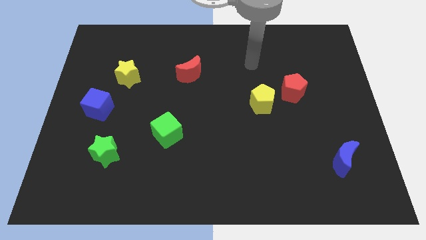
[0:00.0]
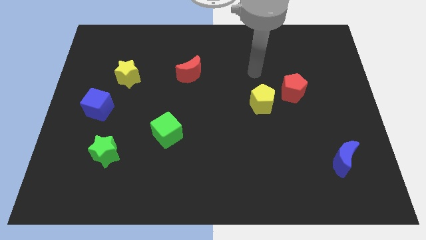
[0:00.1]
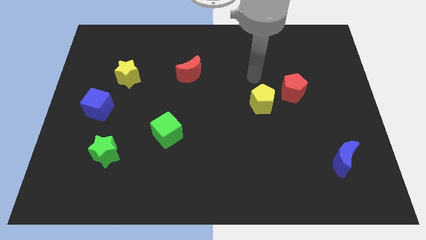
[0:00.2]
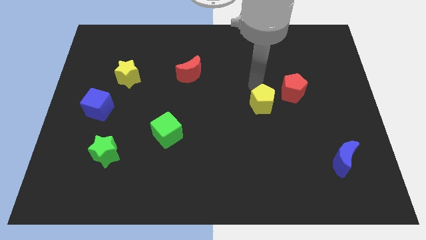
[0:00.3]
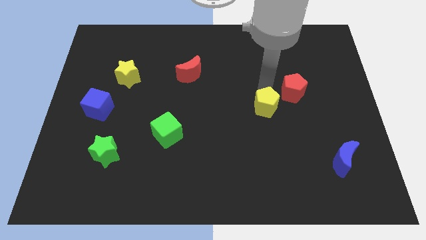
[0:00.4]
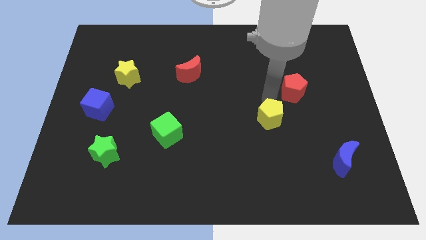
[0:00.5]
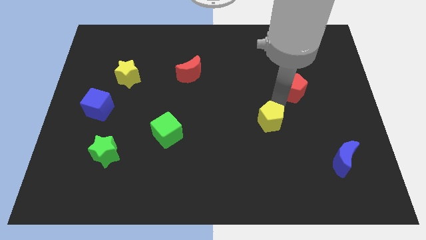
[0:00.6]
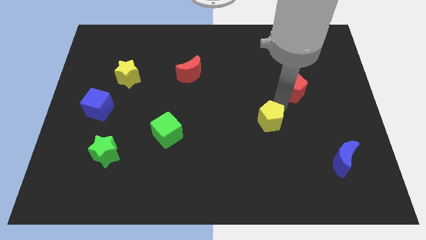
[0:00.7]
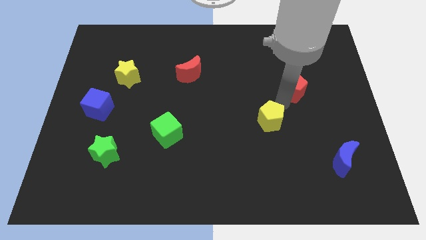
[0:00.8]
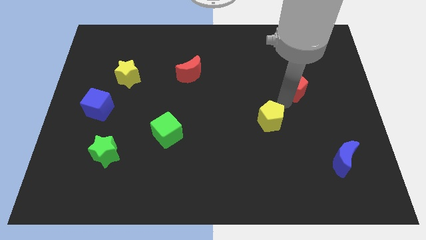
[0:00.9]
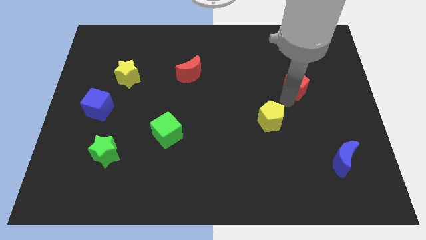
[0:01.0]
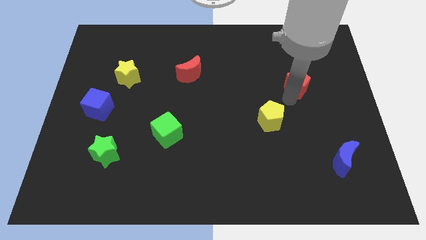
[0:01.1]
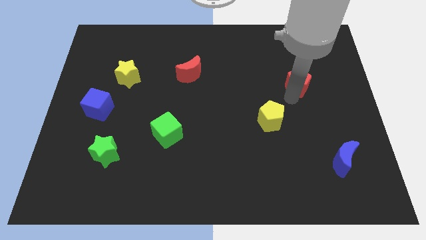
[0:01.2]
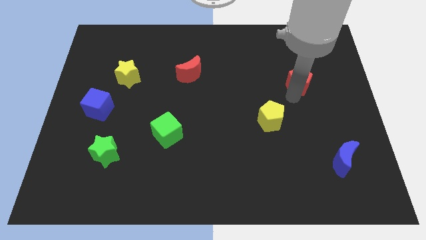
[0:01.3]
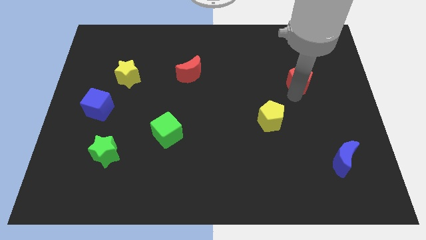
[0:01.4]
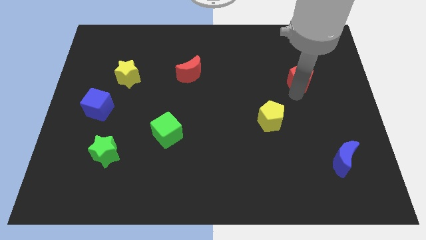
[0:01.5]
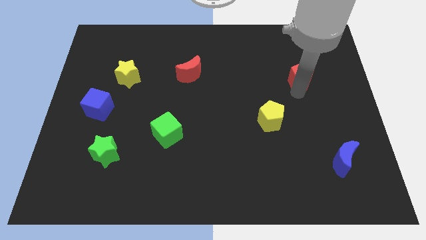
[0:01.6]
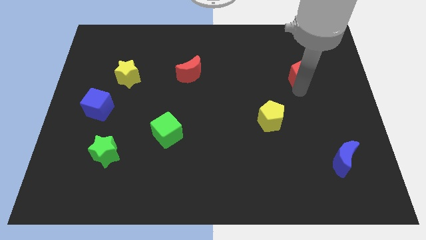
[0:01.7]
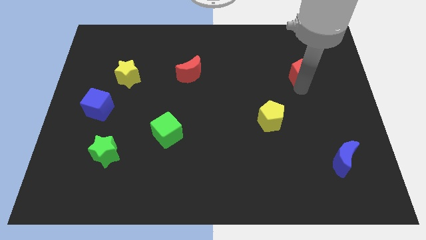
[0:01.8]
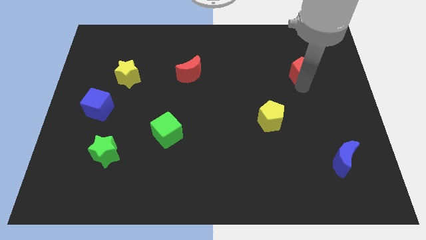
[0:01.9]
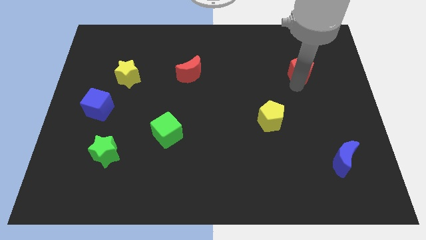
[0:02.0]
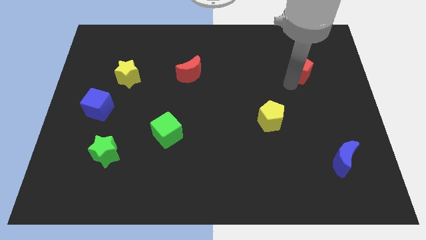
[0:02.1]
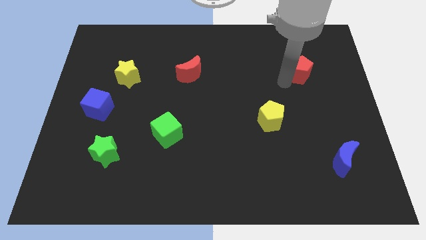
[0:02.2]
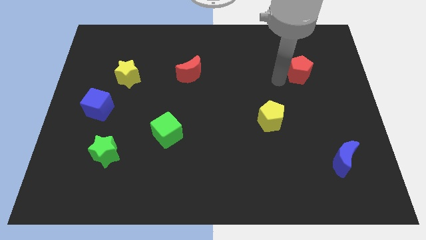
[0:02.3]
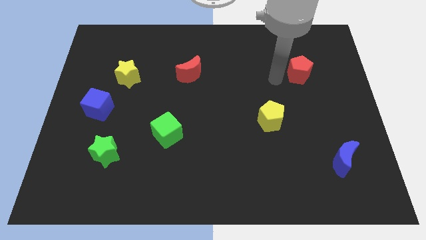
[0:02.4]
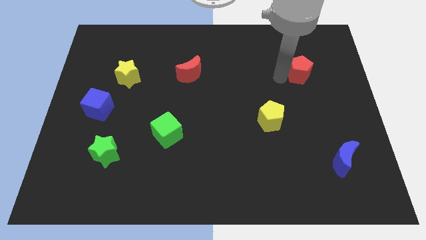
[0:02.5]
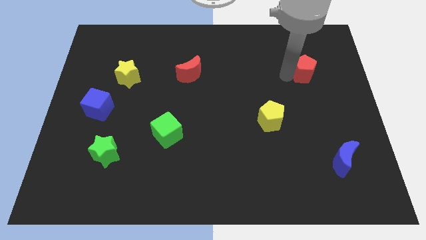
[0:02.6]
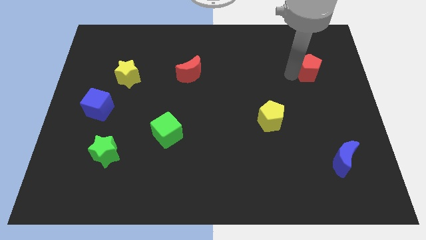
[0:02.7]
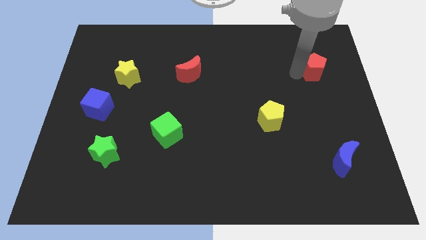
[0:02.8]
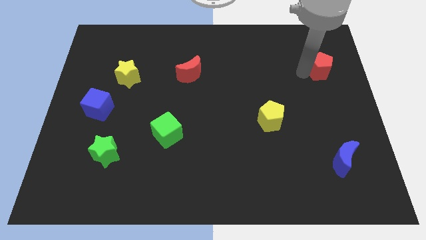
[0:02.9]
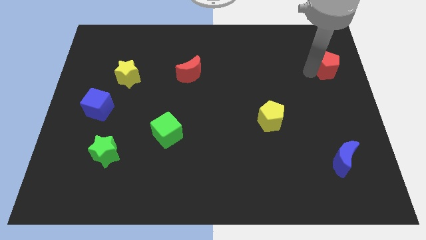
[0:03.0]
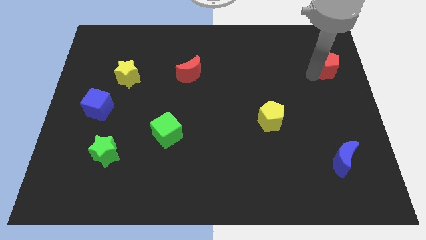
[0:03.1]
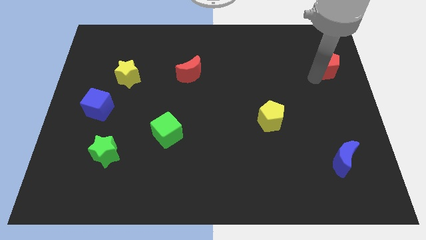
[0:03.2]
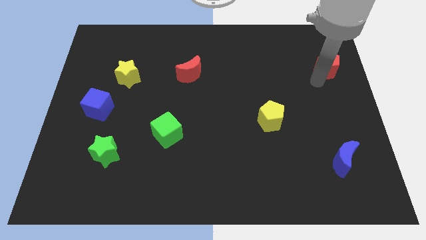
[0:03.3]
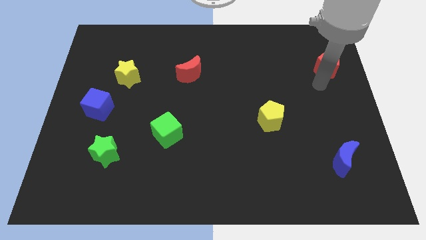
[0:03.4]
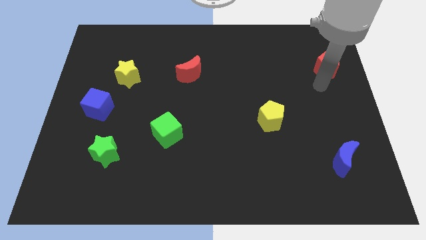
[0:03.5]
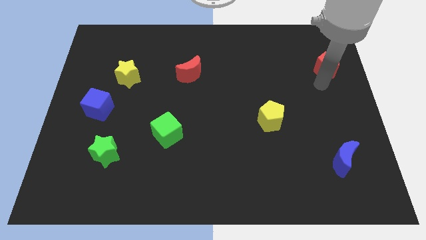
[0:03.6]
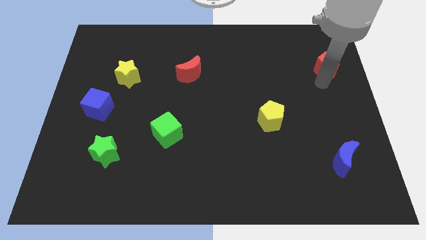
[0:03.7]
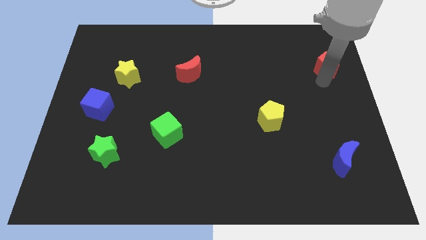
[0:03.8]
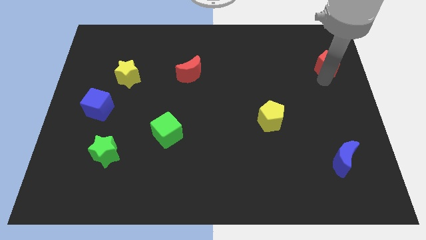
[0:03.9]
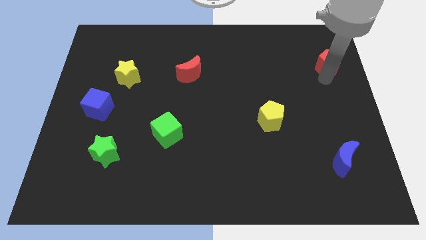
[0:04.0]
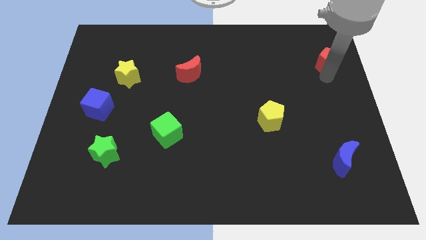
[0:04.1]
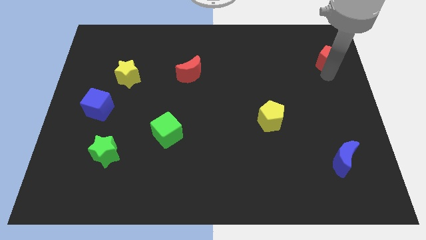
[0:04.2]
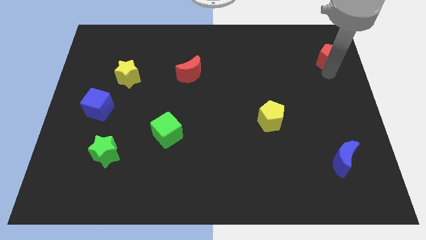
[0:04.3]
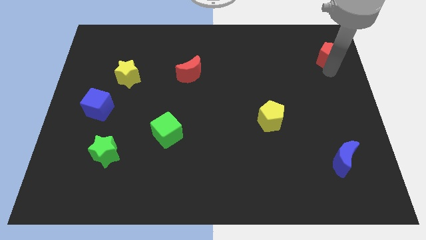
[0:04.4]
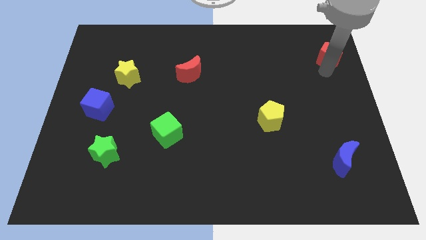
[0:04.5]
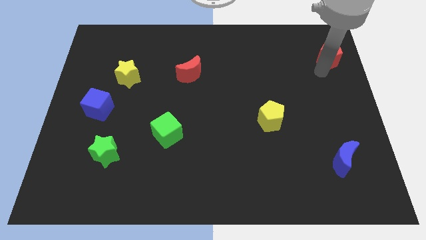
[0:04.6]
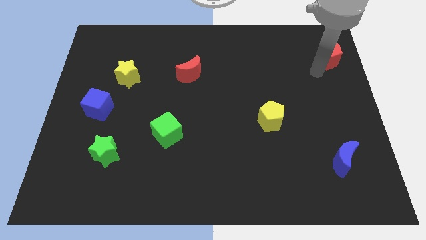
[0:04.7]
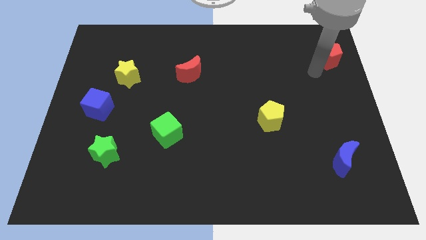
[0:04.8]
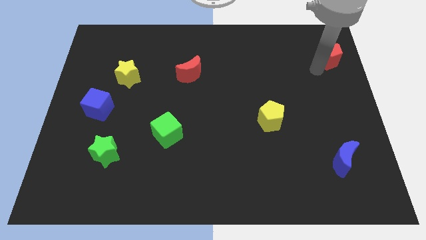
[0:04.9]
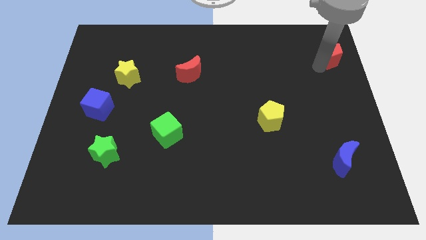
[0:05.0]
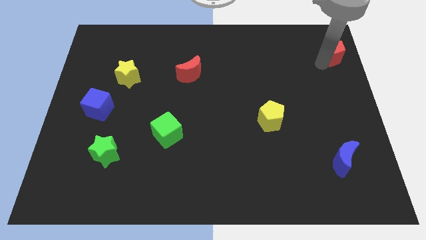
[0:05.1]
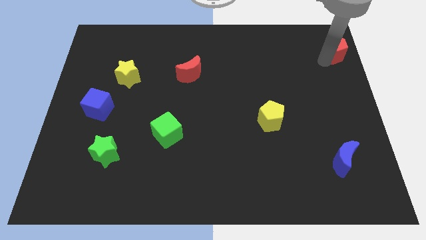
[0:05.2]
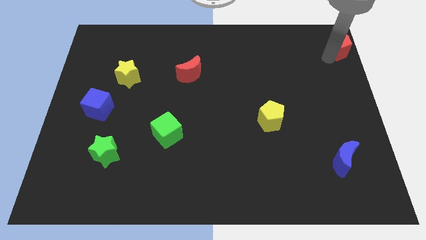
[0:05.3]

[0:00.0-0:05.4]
slide the red pentagon to the top right of the board

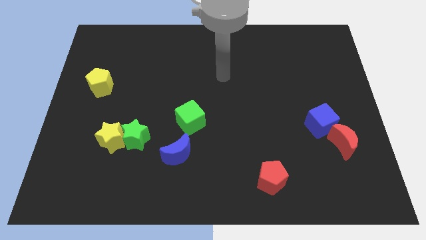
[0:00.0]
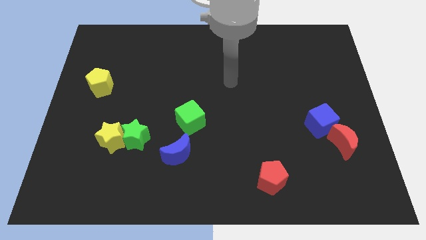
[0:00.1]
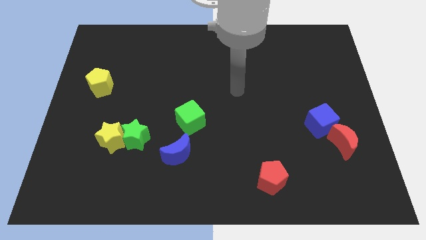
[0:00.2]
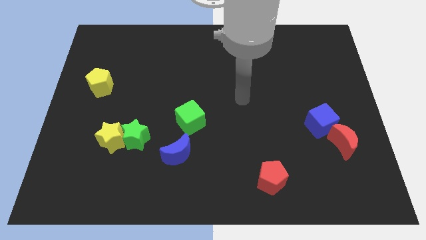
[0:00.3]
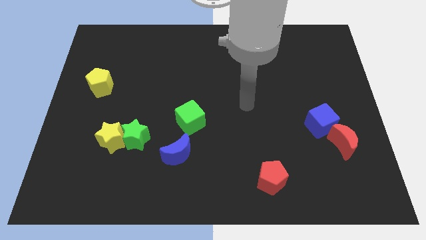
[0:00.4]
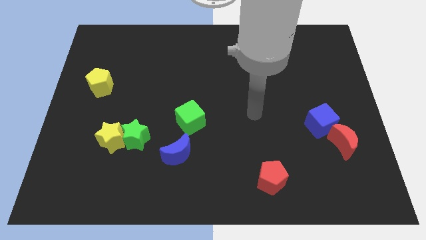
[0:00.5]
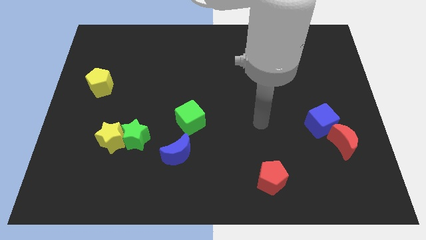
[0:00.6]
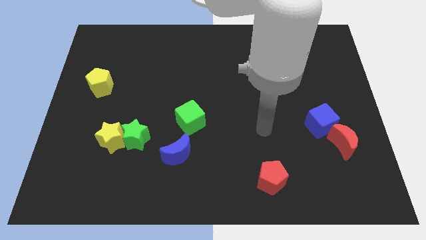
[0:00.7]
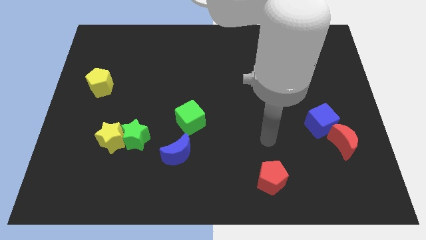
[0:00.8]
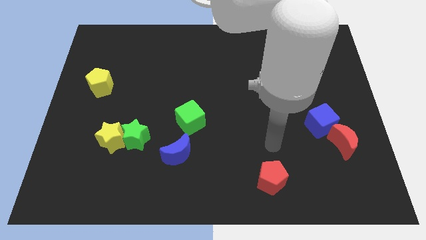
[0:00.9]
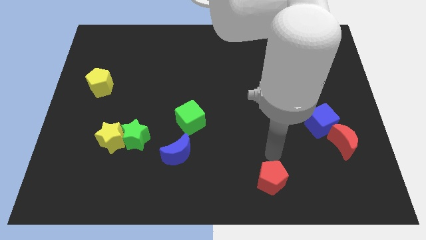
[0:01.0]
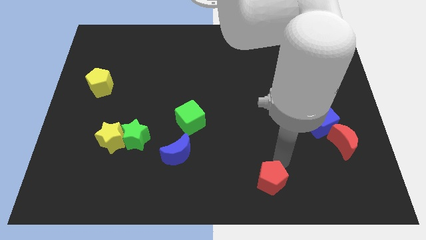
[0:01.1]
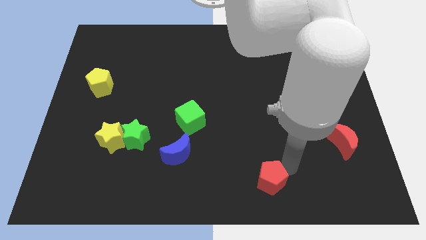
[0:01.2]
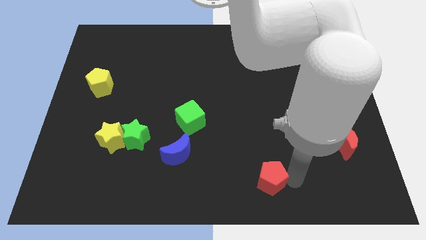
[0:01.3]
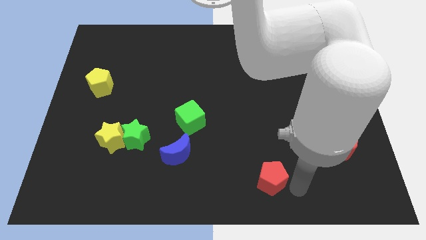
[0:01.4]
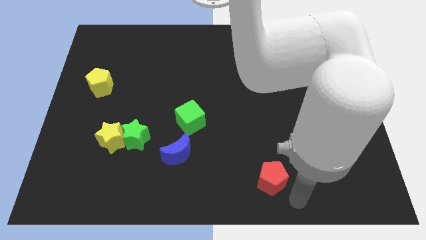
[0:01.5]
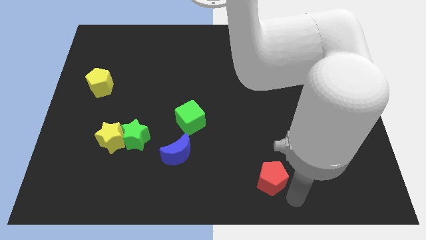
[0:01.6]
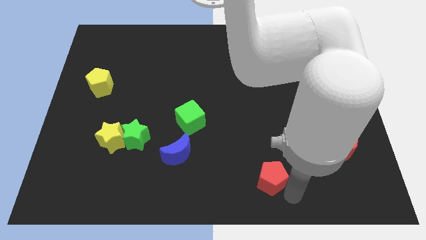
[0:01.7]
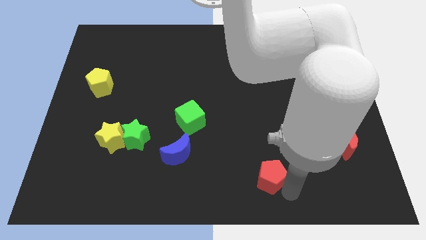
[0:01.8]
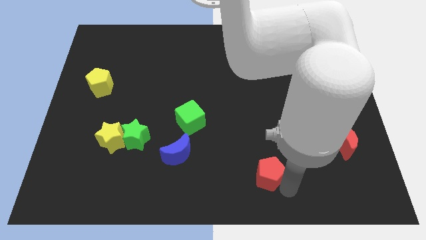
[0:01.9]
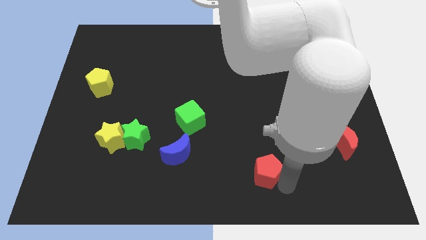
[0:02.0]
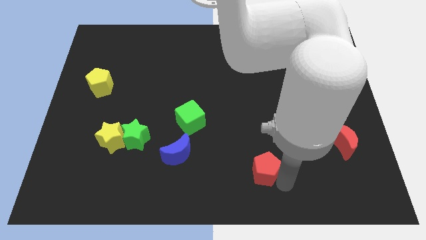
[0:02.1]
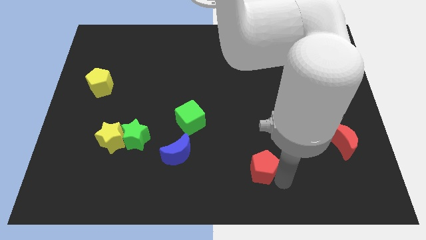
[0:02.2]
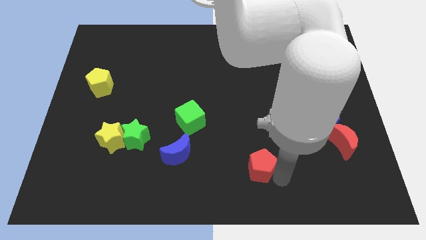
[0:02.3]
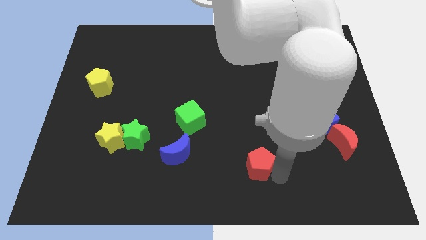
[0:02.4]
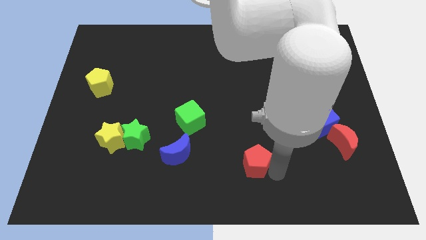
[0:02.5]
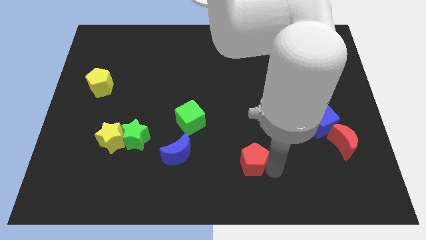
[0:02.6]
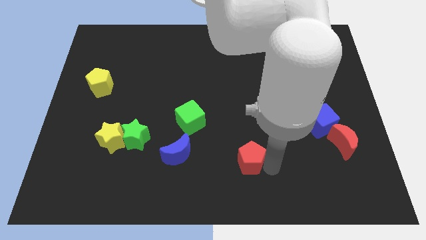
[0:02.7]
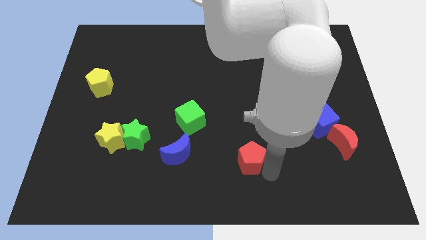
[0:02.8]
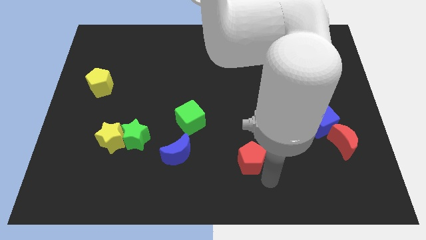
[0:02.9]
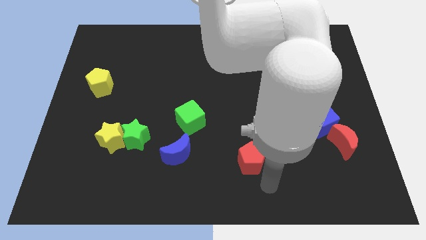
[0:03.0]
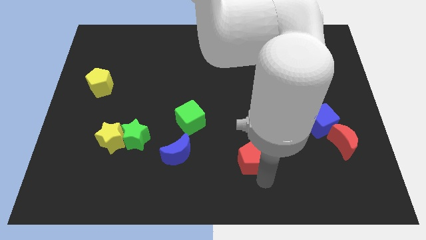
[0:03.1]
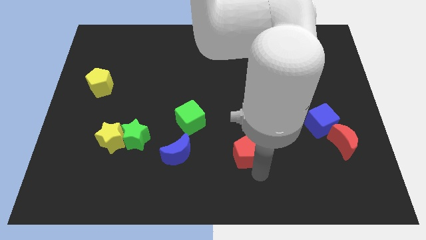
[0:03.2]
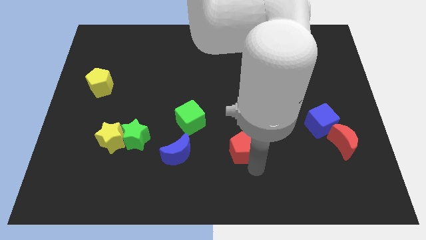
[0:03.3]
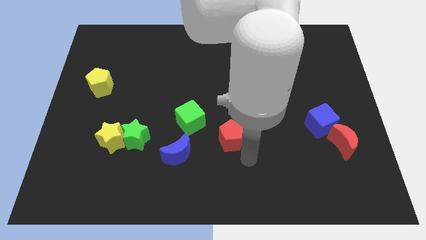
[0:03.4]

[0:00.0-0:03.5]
push the red pentagon to the center of the board
